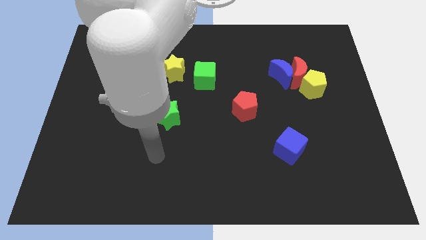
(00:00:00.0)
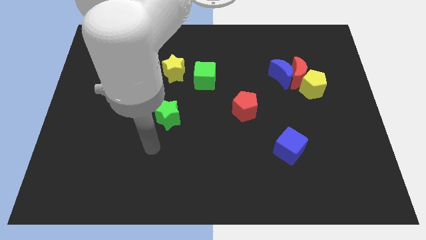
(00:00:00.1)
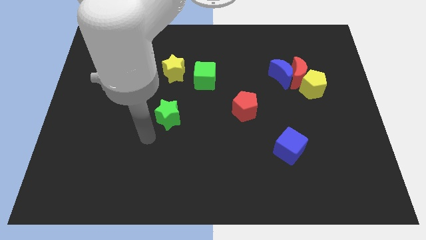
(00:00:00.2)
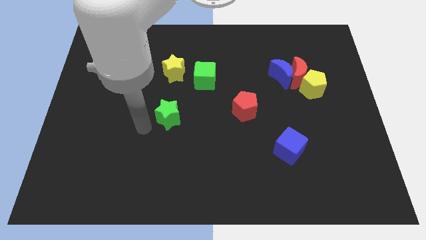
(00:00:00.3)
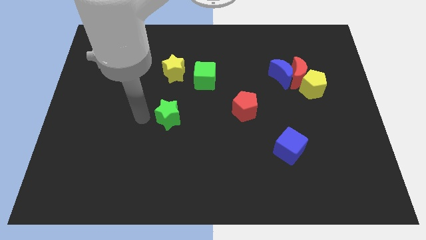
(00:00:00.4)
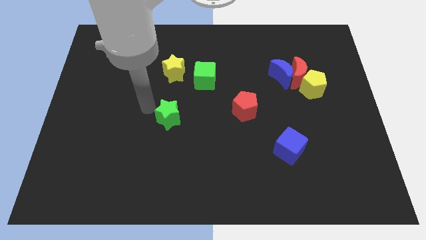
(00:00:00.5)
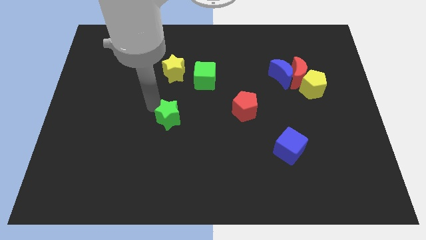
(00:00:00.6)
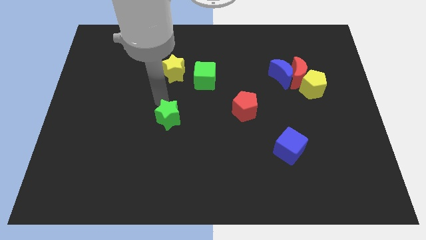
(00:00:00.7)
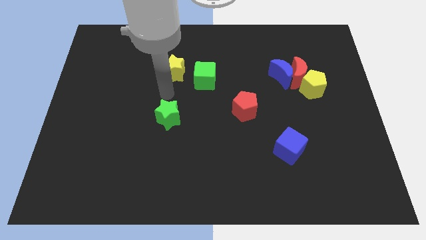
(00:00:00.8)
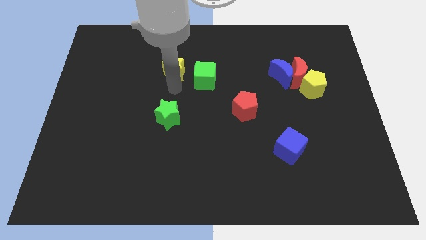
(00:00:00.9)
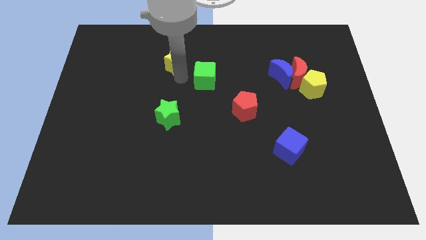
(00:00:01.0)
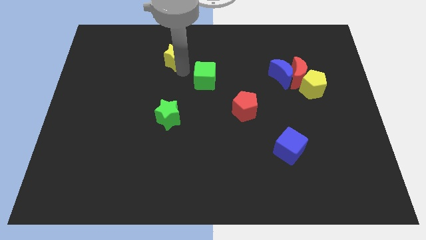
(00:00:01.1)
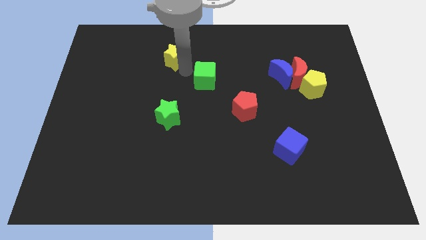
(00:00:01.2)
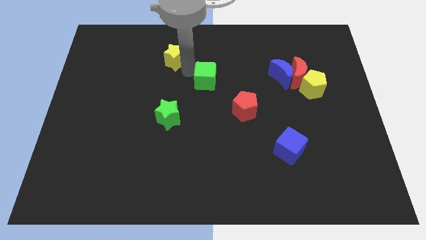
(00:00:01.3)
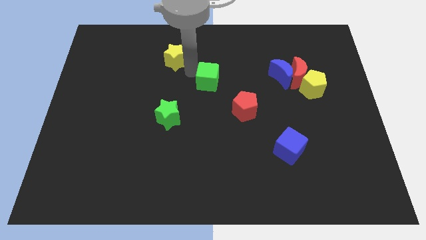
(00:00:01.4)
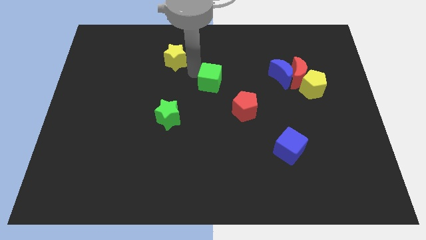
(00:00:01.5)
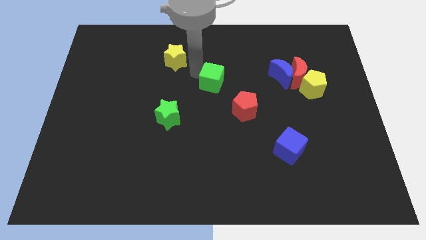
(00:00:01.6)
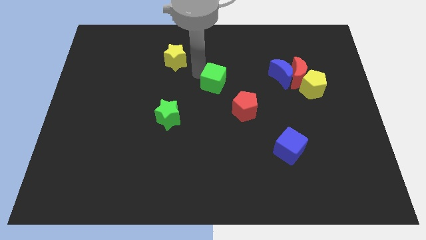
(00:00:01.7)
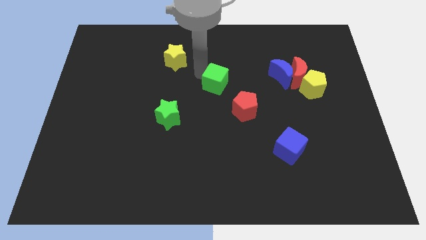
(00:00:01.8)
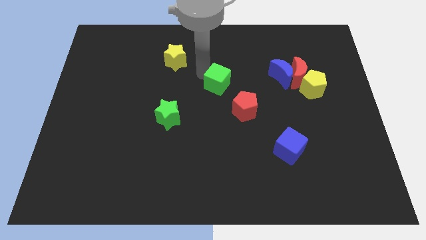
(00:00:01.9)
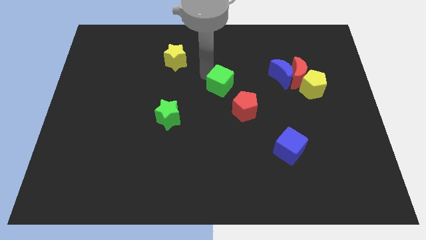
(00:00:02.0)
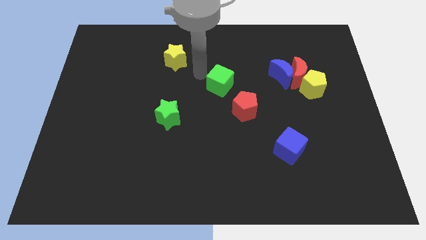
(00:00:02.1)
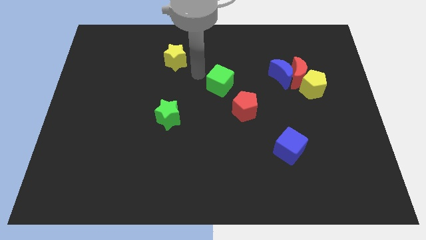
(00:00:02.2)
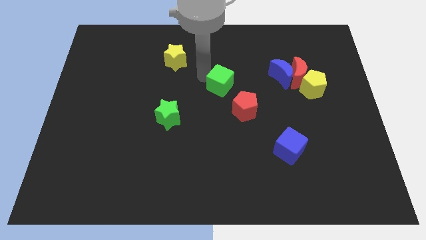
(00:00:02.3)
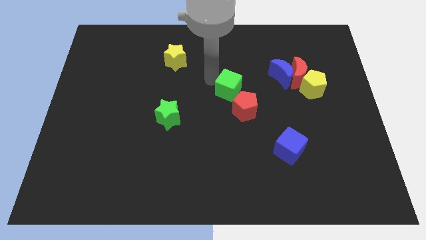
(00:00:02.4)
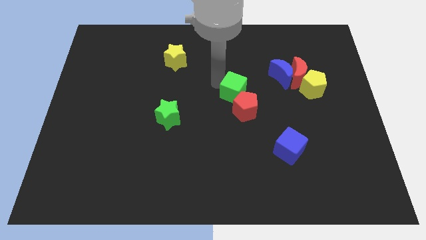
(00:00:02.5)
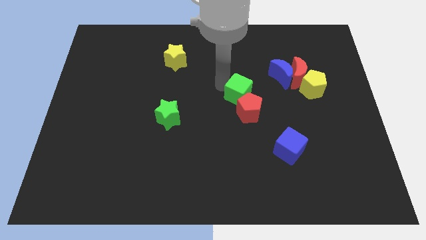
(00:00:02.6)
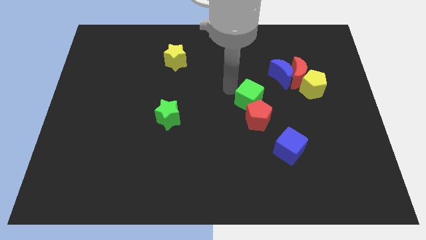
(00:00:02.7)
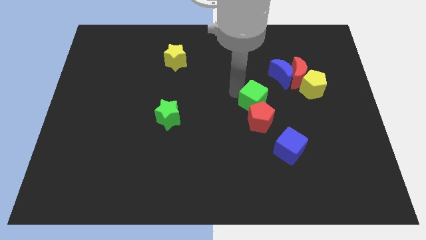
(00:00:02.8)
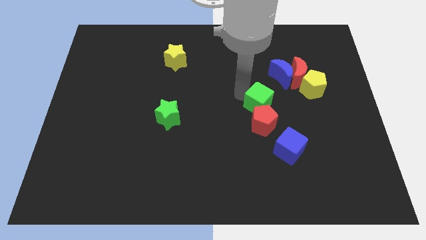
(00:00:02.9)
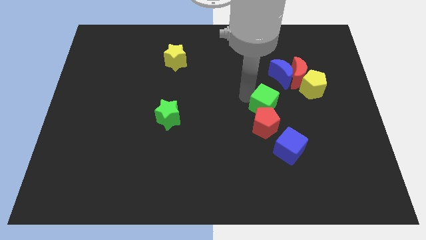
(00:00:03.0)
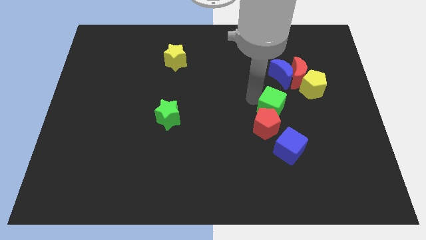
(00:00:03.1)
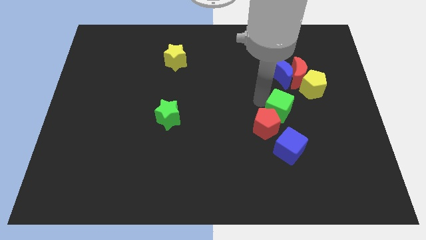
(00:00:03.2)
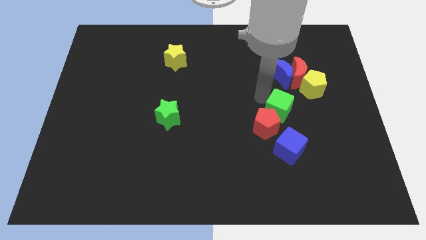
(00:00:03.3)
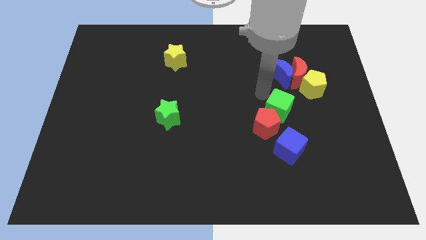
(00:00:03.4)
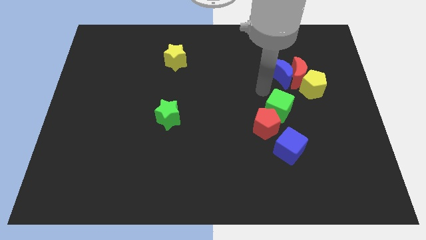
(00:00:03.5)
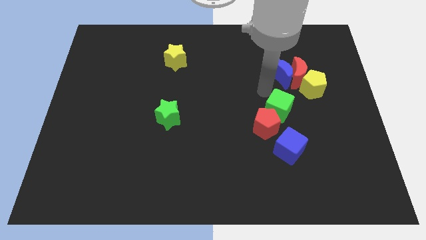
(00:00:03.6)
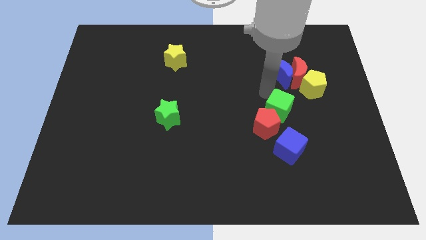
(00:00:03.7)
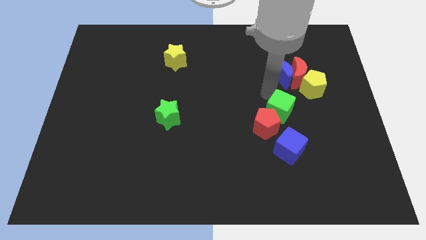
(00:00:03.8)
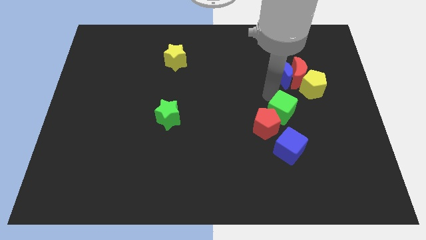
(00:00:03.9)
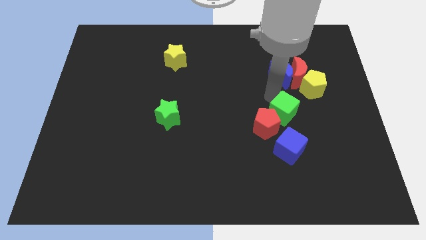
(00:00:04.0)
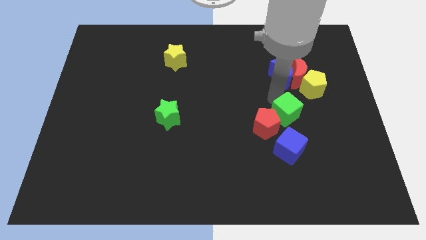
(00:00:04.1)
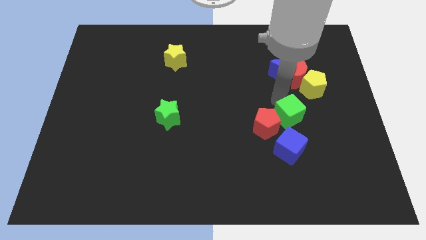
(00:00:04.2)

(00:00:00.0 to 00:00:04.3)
push the green cube down and to the right

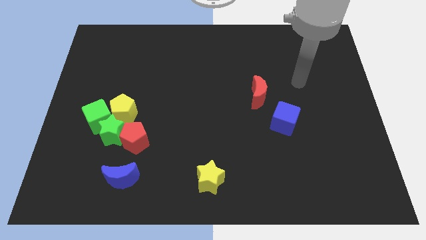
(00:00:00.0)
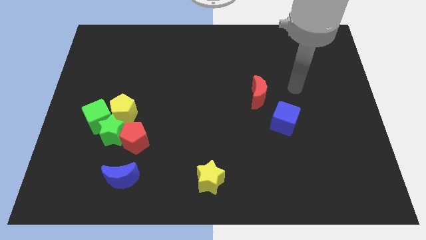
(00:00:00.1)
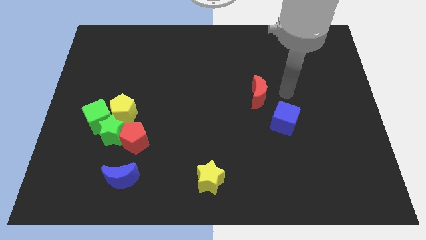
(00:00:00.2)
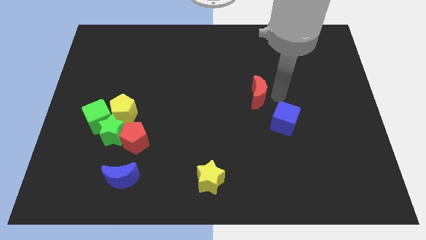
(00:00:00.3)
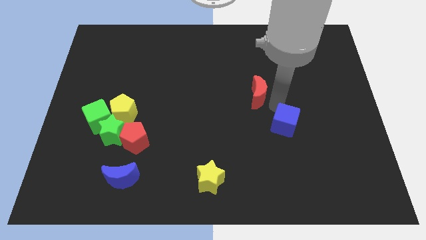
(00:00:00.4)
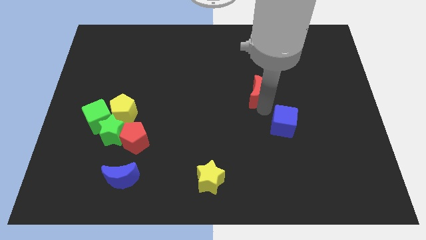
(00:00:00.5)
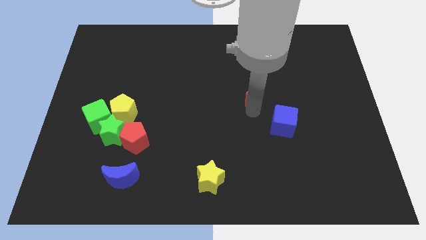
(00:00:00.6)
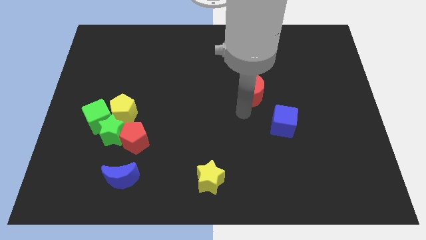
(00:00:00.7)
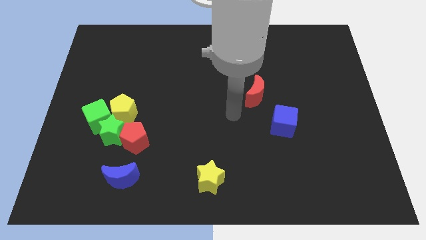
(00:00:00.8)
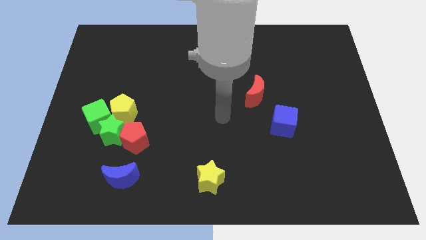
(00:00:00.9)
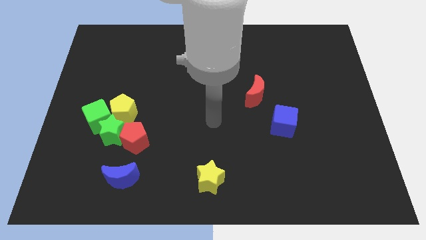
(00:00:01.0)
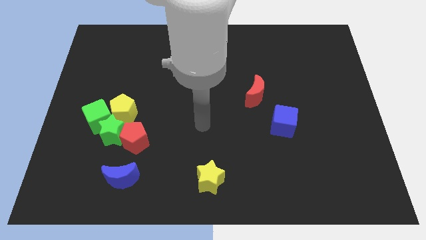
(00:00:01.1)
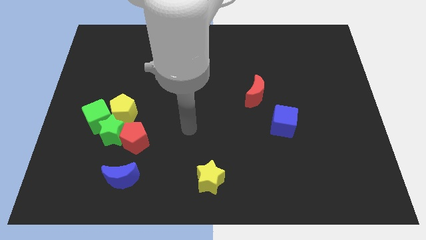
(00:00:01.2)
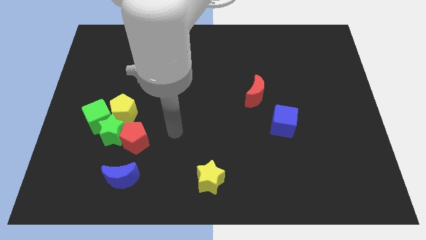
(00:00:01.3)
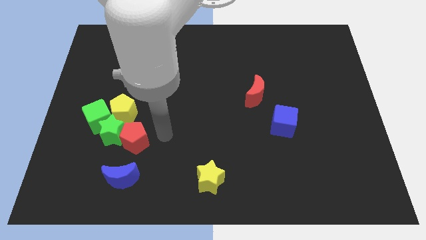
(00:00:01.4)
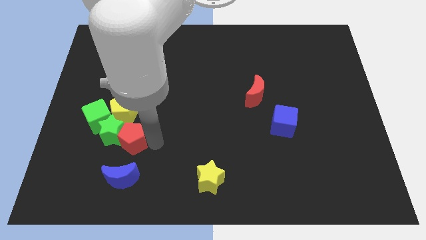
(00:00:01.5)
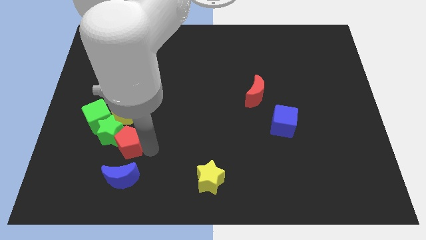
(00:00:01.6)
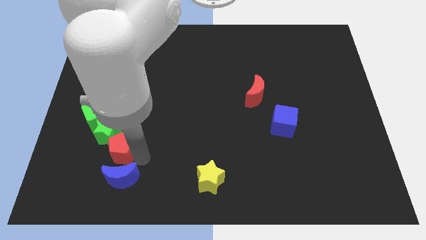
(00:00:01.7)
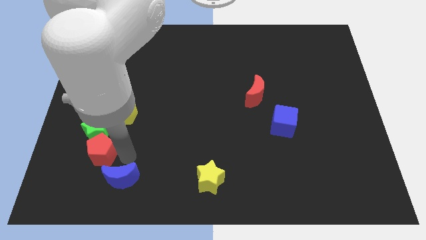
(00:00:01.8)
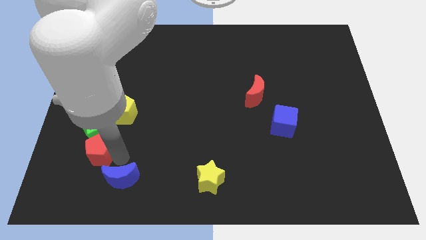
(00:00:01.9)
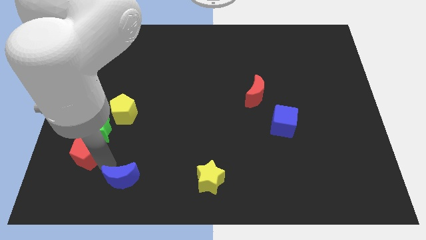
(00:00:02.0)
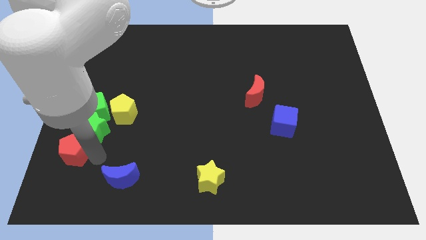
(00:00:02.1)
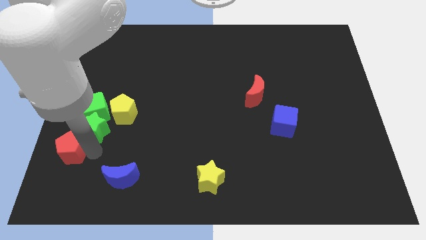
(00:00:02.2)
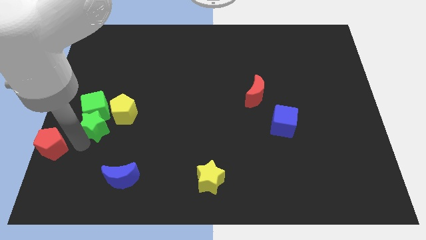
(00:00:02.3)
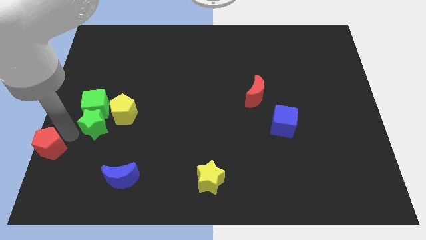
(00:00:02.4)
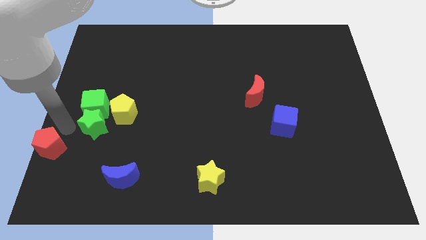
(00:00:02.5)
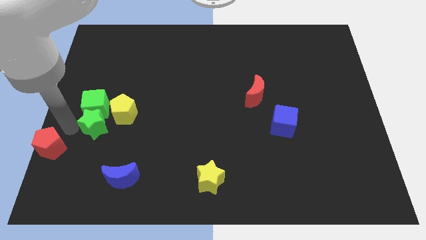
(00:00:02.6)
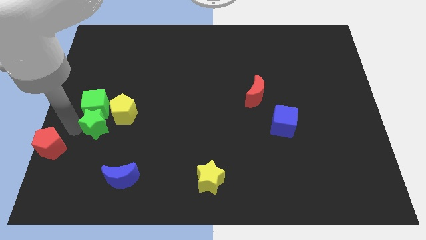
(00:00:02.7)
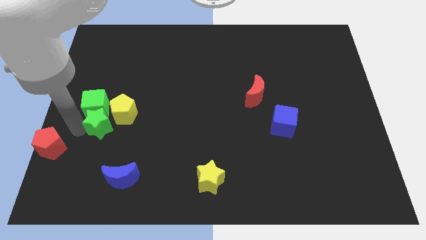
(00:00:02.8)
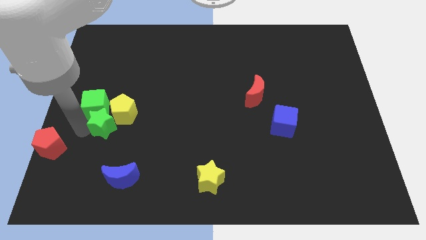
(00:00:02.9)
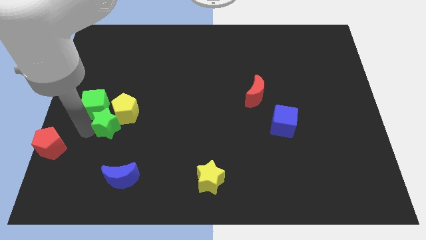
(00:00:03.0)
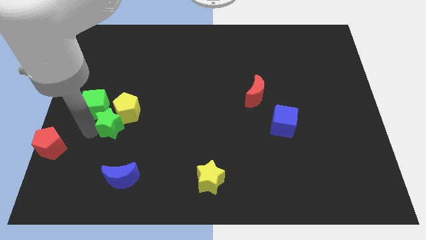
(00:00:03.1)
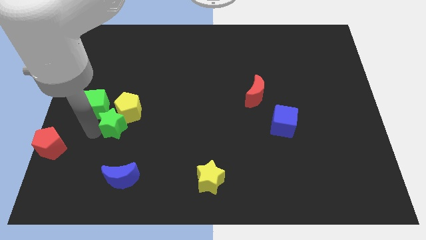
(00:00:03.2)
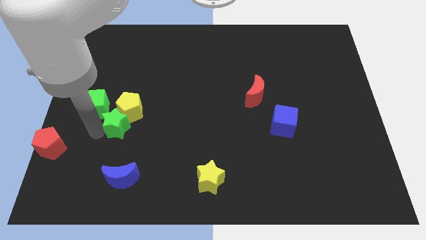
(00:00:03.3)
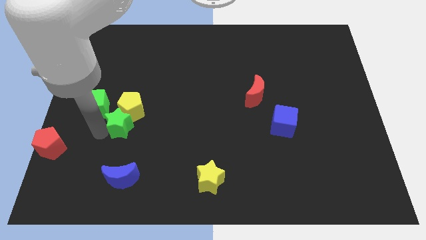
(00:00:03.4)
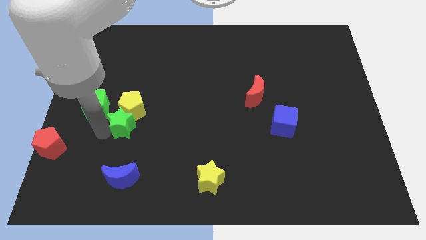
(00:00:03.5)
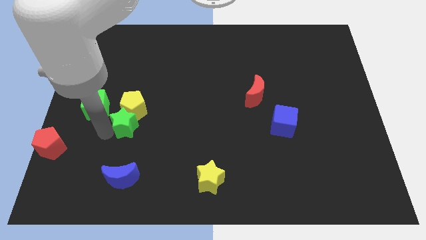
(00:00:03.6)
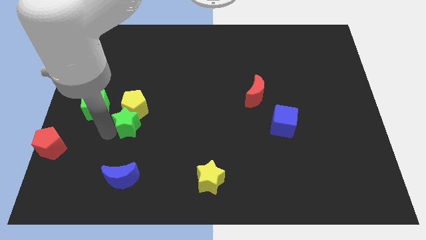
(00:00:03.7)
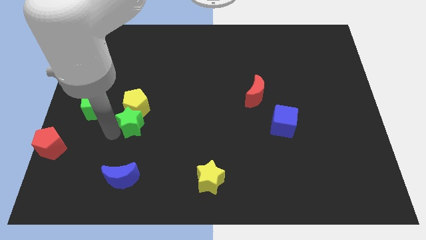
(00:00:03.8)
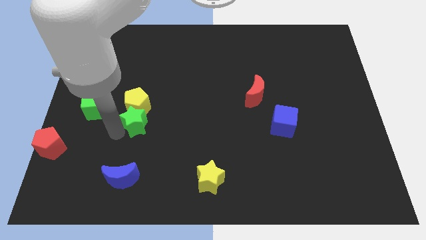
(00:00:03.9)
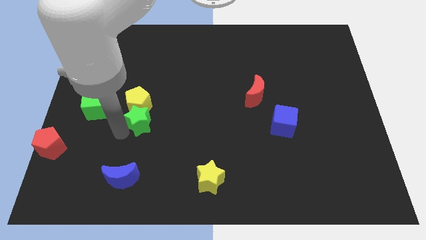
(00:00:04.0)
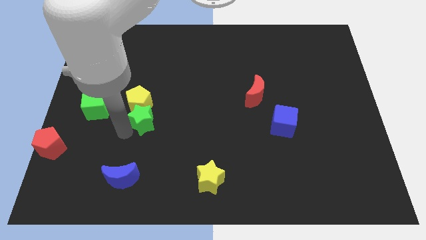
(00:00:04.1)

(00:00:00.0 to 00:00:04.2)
slide the green star upwards and to the right diagonally somewhat
